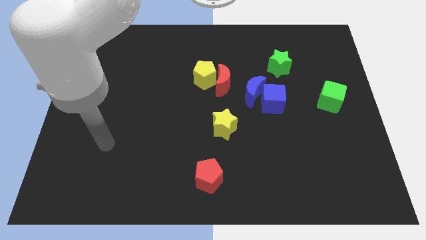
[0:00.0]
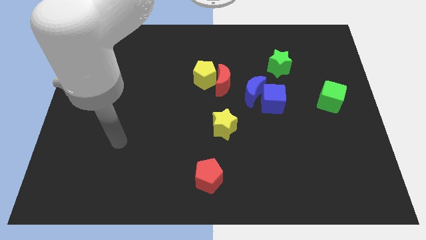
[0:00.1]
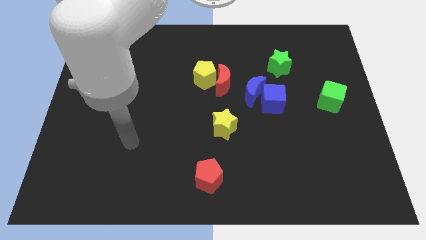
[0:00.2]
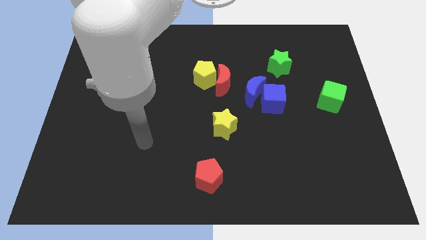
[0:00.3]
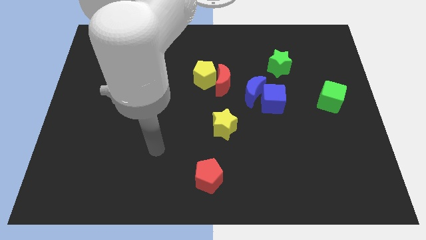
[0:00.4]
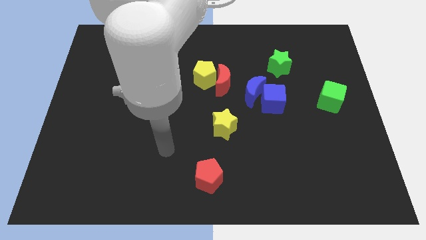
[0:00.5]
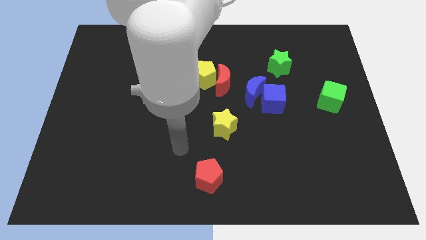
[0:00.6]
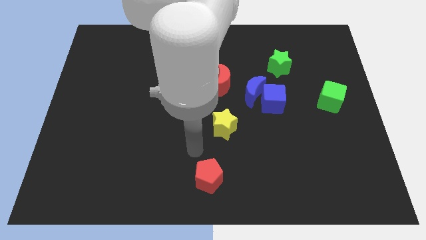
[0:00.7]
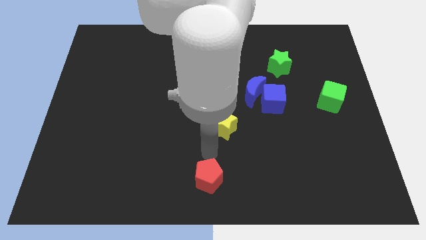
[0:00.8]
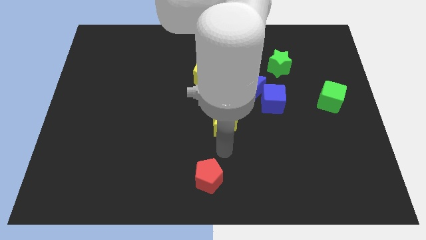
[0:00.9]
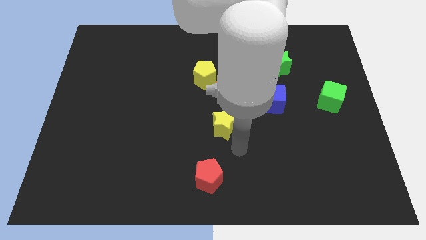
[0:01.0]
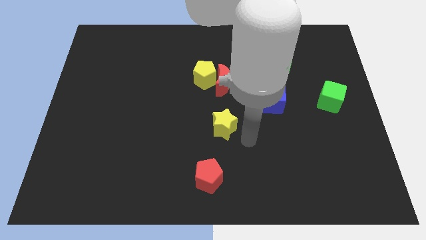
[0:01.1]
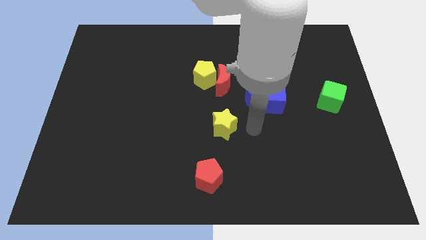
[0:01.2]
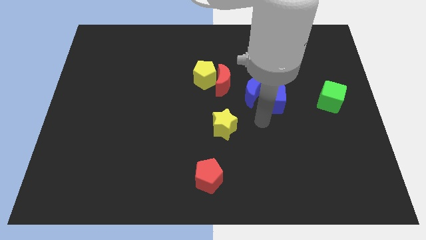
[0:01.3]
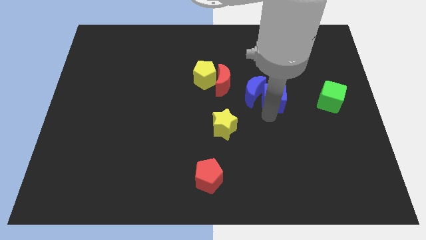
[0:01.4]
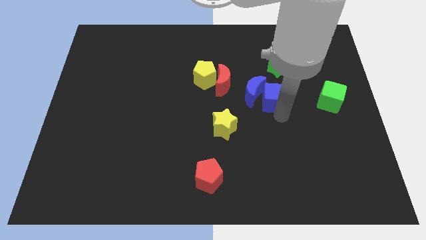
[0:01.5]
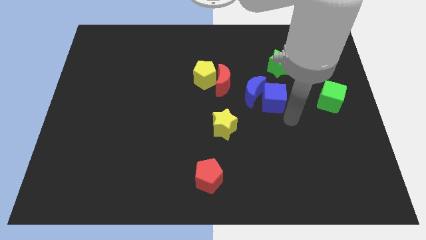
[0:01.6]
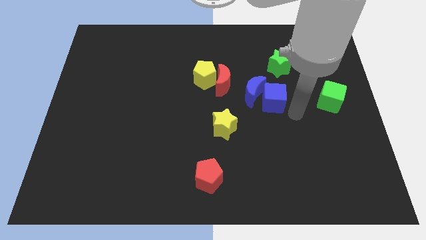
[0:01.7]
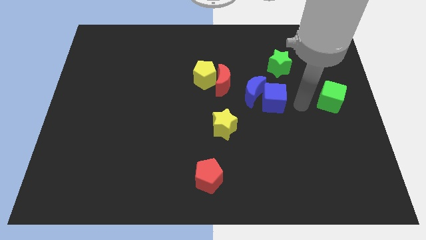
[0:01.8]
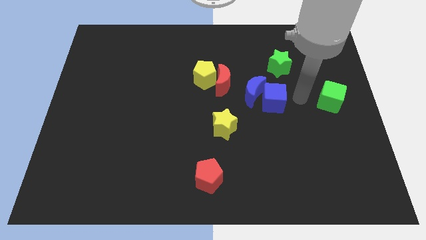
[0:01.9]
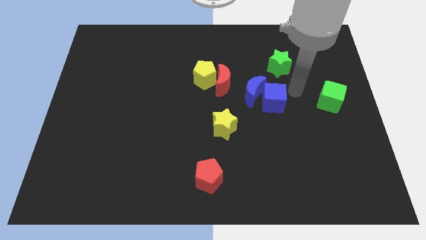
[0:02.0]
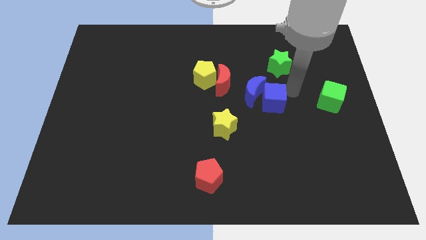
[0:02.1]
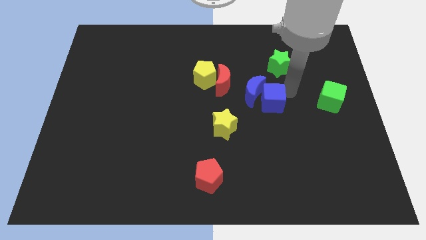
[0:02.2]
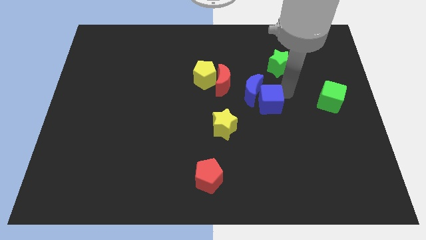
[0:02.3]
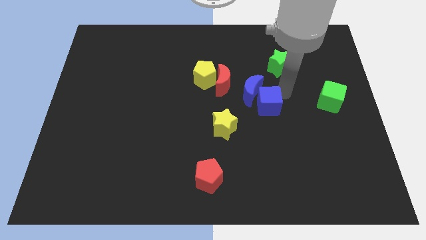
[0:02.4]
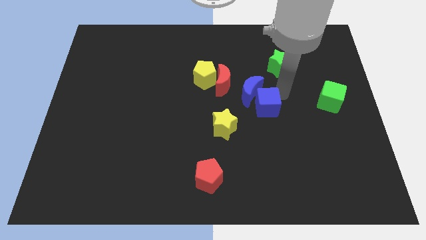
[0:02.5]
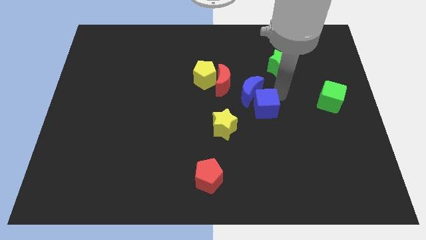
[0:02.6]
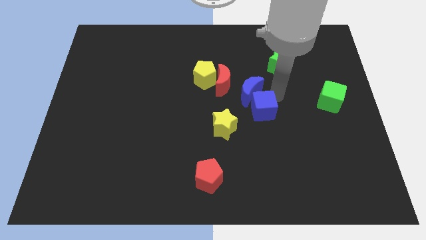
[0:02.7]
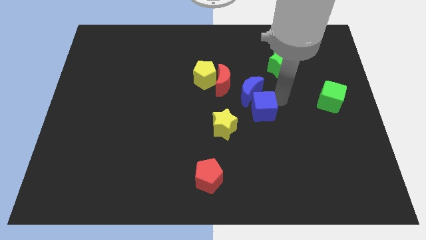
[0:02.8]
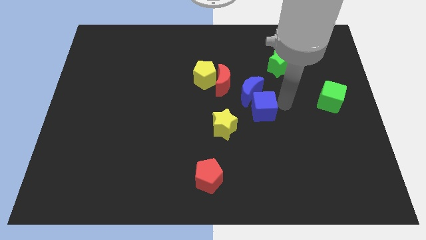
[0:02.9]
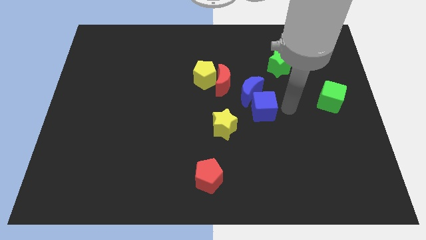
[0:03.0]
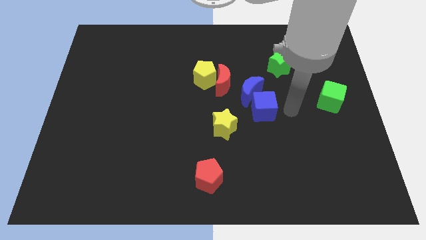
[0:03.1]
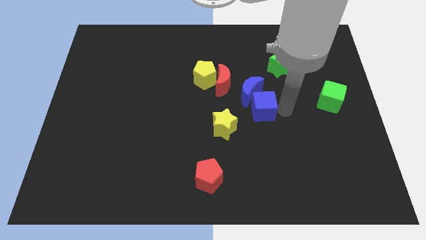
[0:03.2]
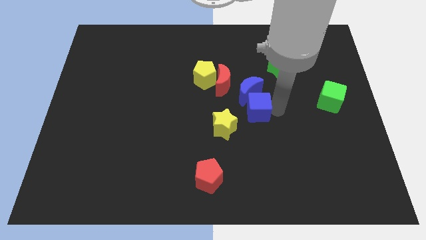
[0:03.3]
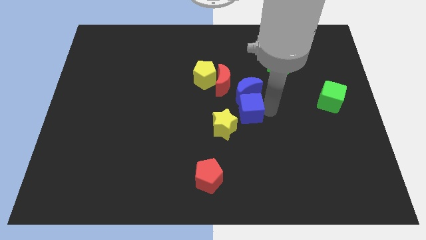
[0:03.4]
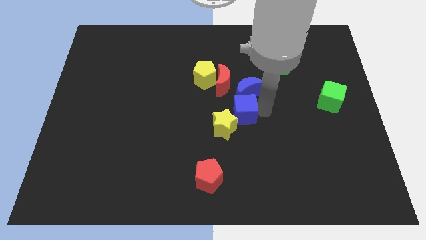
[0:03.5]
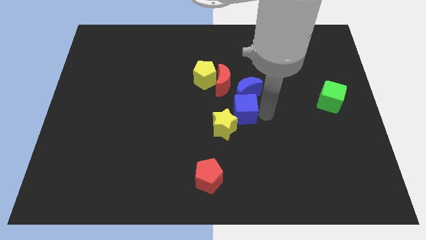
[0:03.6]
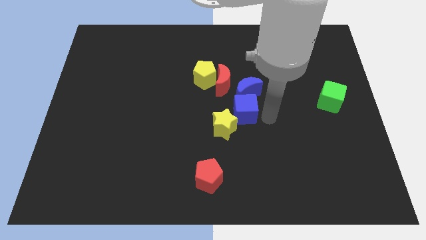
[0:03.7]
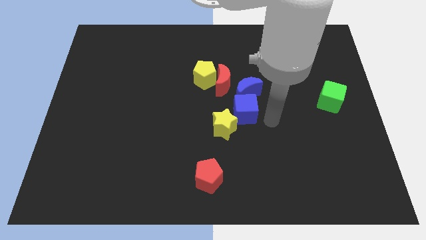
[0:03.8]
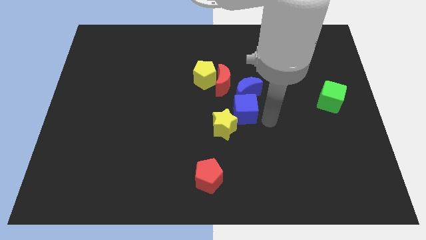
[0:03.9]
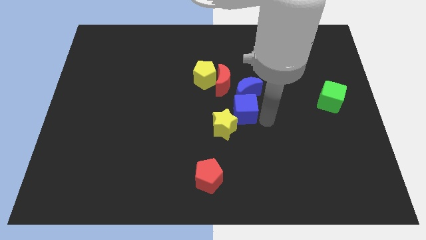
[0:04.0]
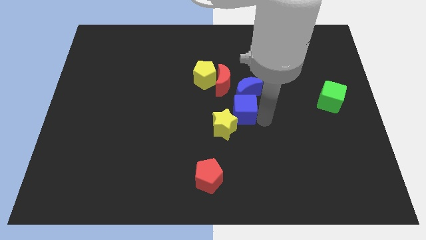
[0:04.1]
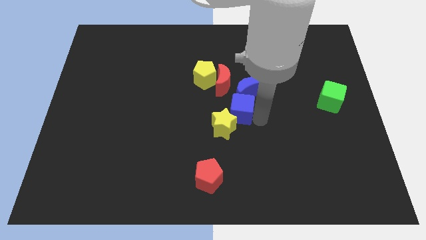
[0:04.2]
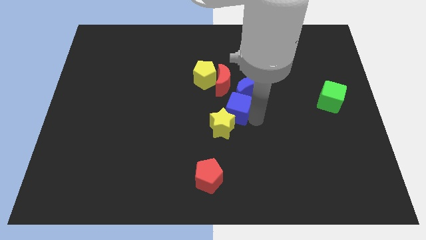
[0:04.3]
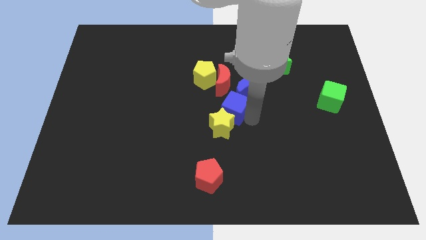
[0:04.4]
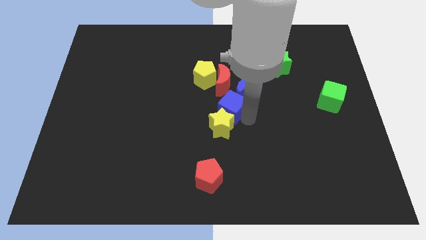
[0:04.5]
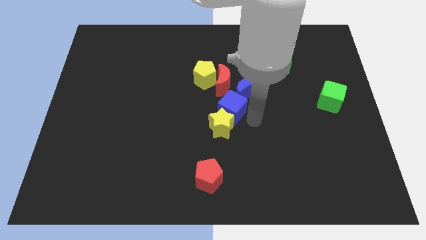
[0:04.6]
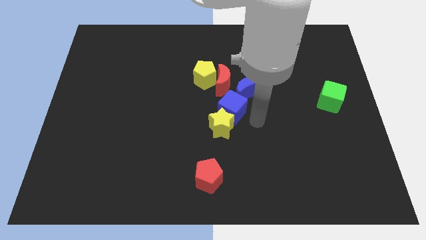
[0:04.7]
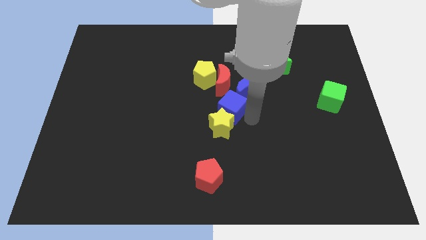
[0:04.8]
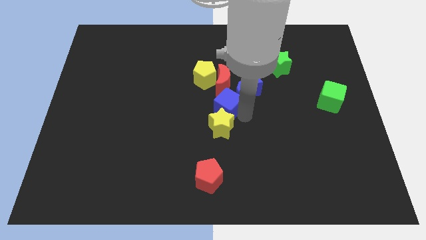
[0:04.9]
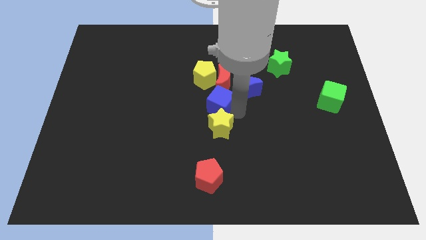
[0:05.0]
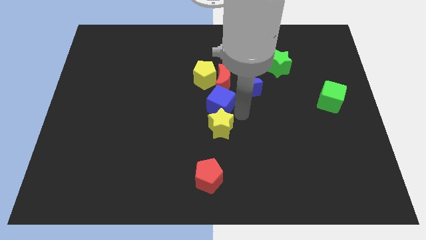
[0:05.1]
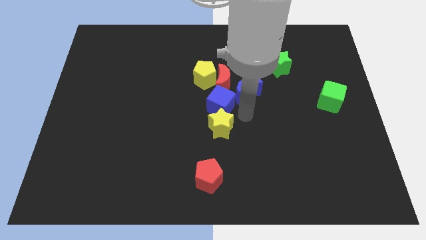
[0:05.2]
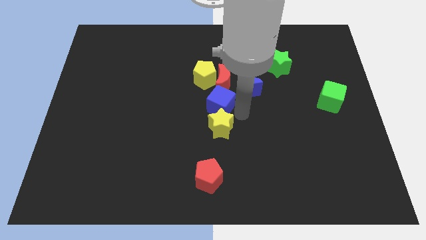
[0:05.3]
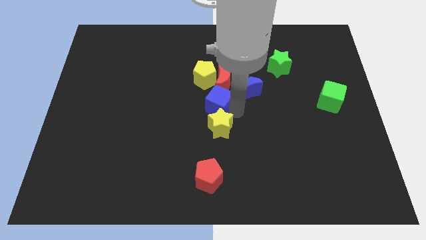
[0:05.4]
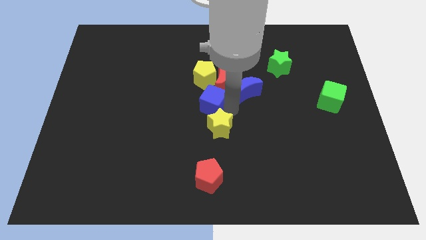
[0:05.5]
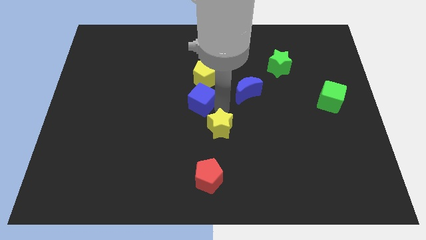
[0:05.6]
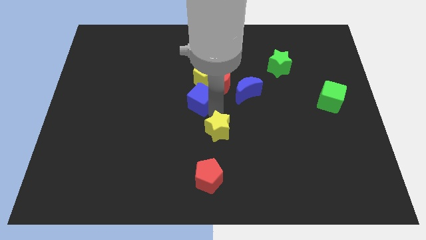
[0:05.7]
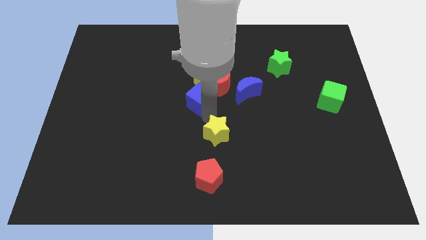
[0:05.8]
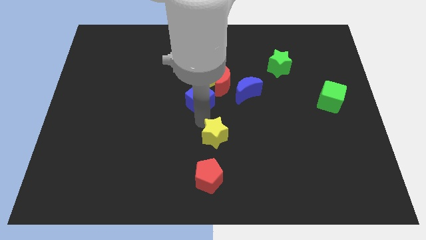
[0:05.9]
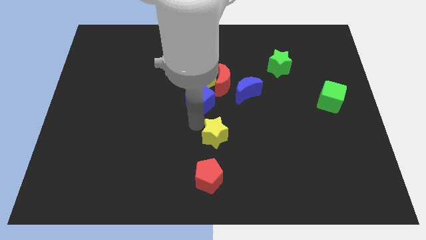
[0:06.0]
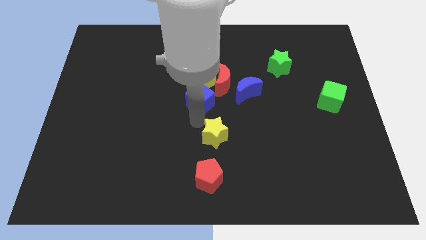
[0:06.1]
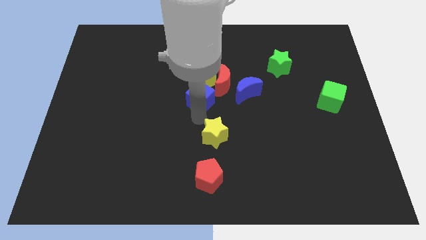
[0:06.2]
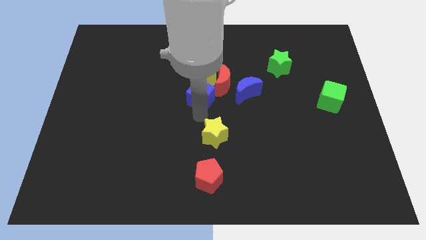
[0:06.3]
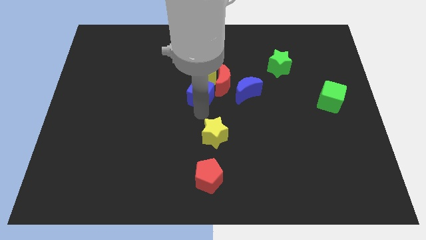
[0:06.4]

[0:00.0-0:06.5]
slide the blue cube towards the yellow pentagon

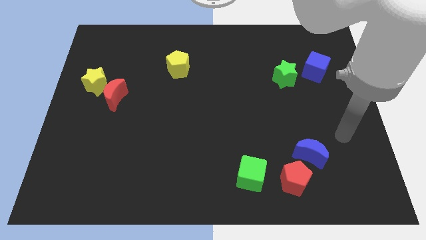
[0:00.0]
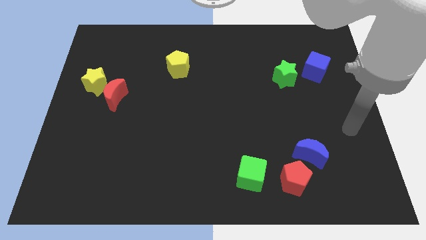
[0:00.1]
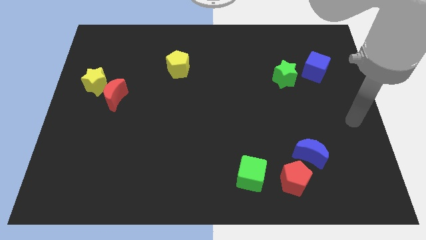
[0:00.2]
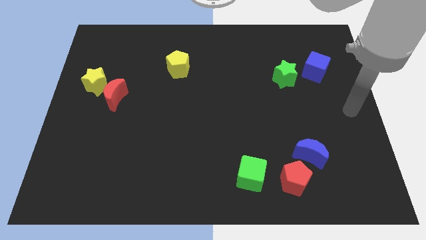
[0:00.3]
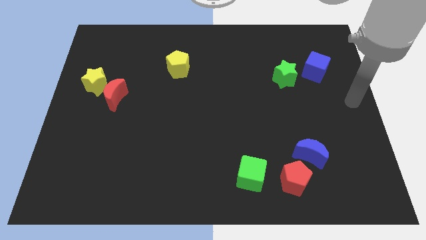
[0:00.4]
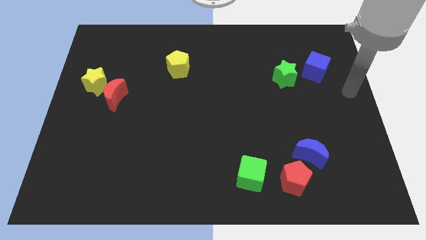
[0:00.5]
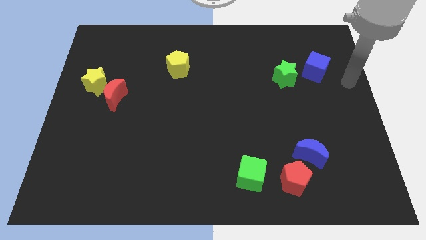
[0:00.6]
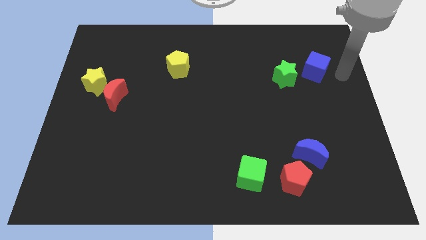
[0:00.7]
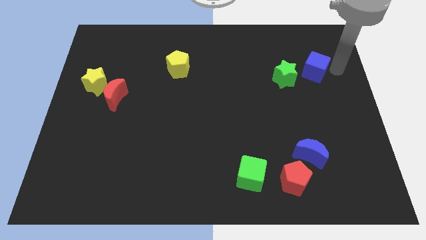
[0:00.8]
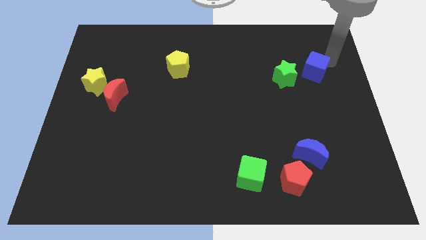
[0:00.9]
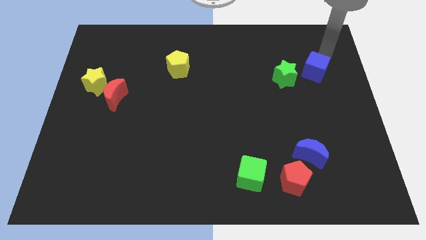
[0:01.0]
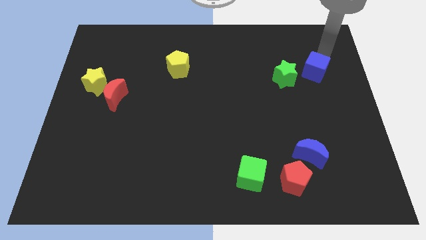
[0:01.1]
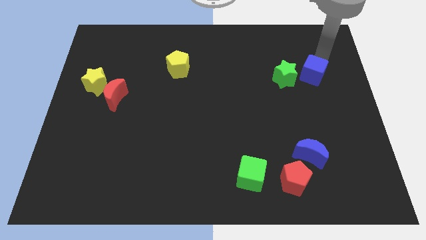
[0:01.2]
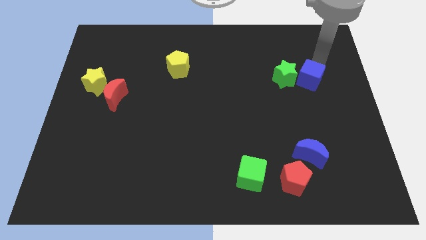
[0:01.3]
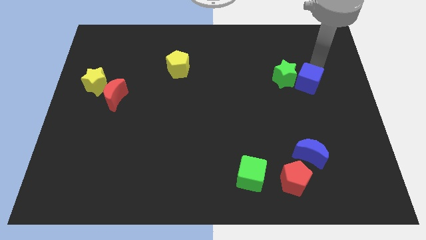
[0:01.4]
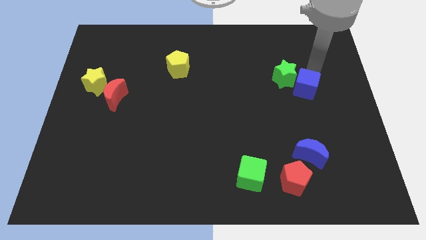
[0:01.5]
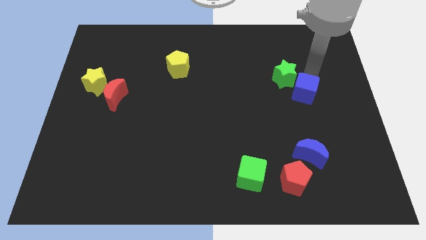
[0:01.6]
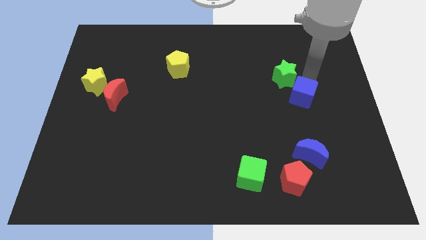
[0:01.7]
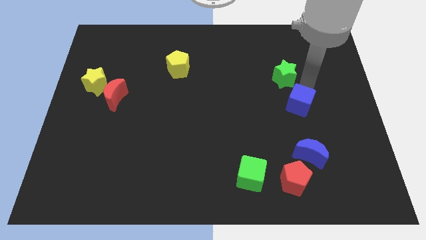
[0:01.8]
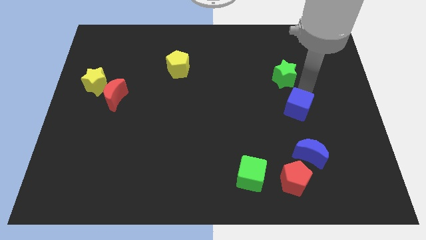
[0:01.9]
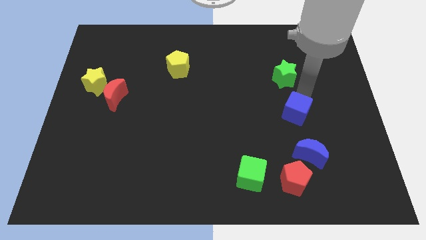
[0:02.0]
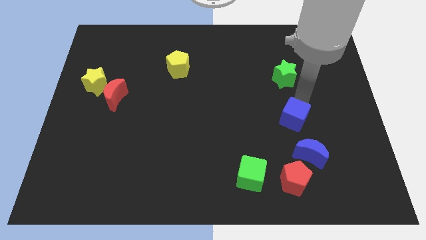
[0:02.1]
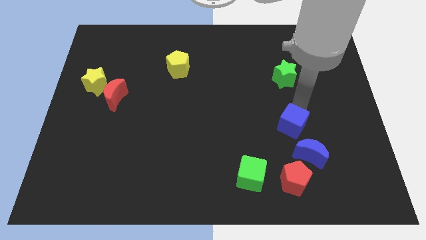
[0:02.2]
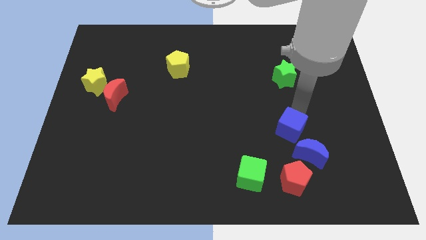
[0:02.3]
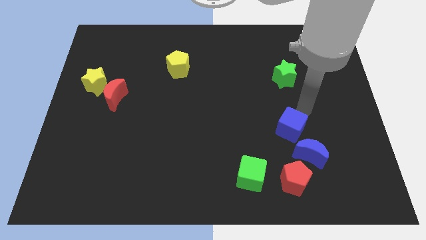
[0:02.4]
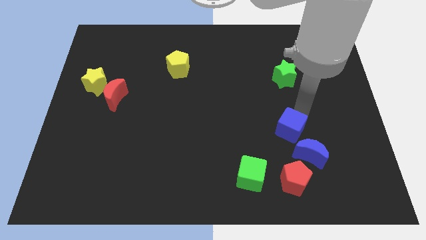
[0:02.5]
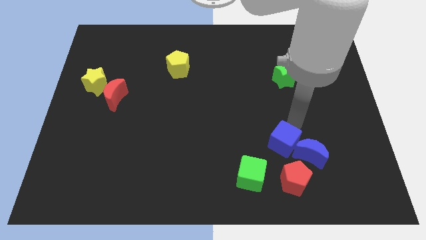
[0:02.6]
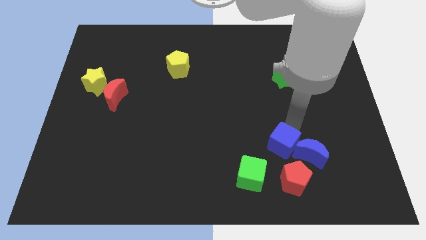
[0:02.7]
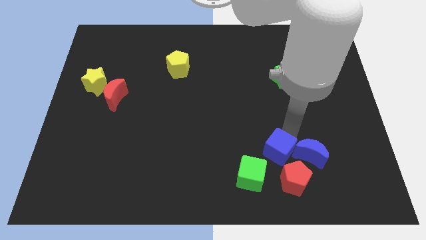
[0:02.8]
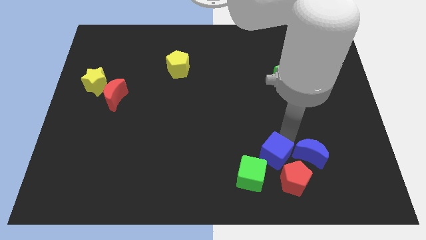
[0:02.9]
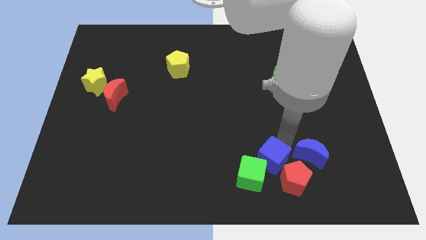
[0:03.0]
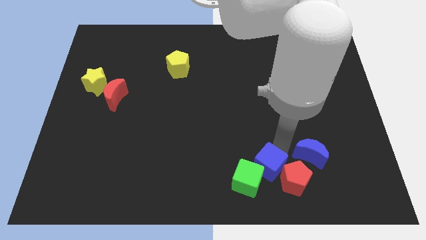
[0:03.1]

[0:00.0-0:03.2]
move the blue cube towards the green cube
